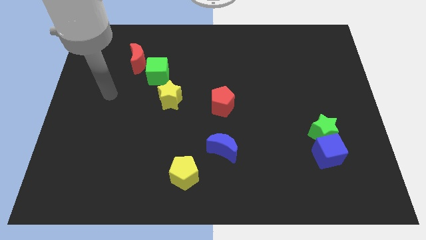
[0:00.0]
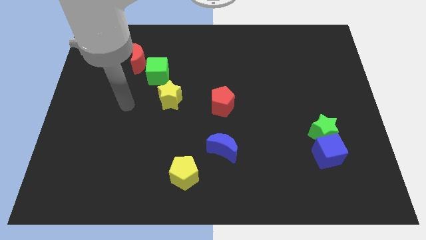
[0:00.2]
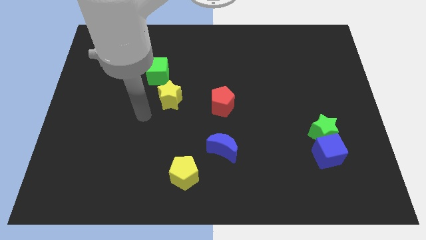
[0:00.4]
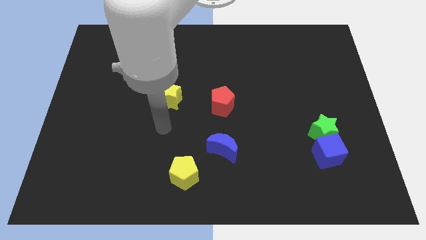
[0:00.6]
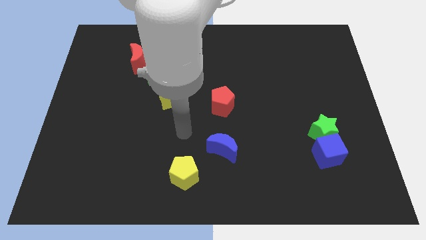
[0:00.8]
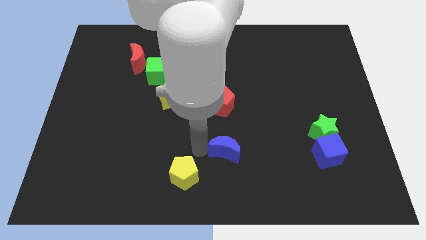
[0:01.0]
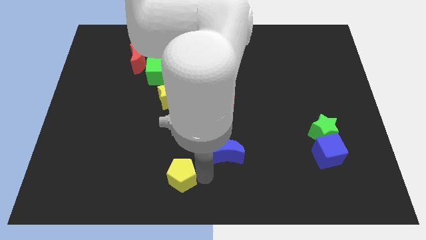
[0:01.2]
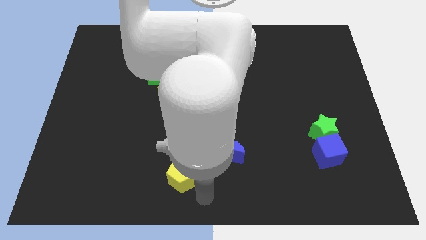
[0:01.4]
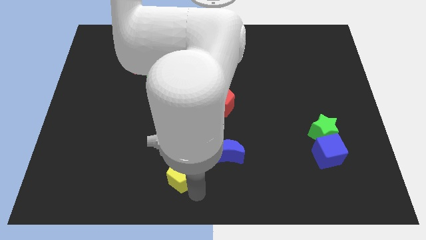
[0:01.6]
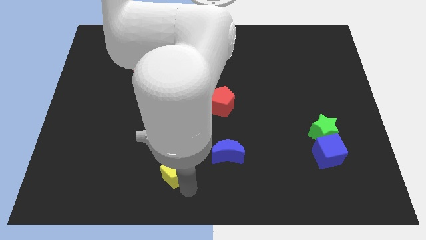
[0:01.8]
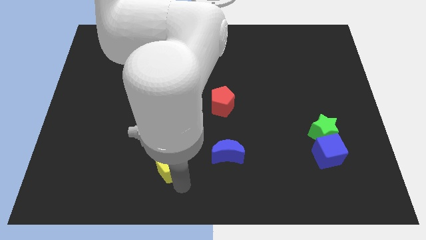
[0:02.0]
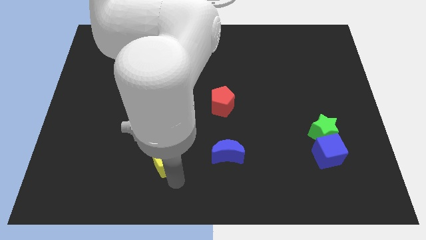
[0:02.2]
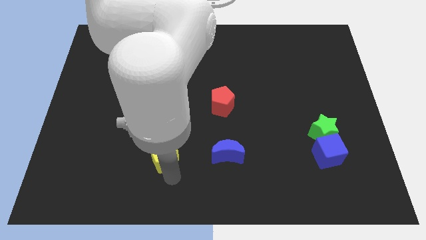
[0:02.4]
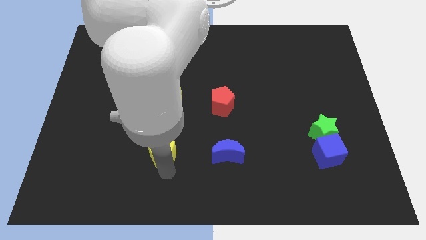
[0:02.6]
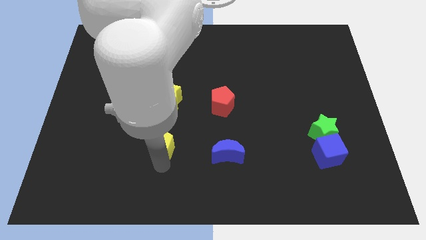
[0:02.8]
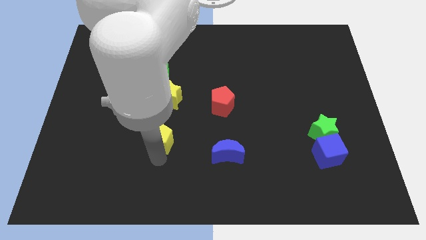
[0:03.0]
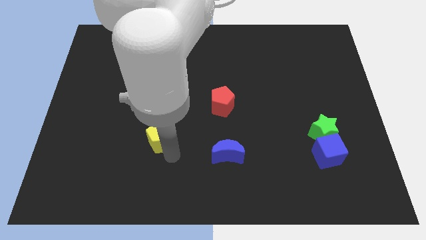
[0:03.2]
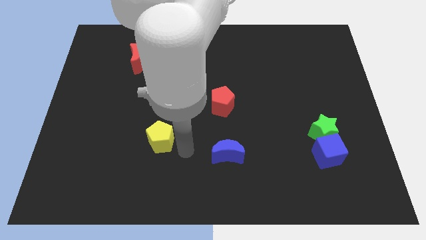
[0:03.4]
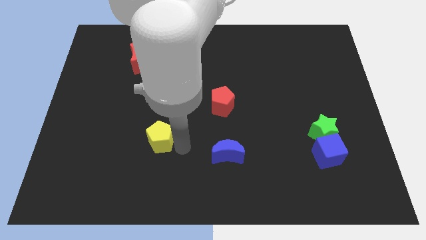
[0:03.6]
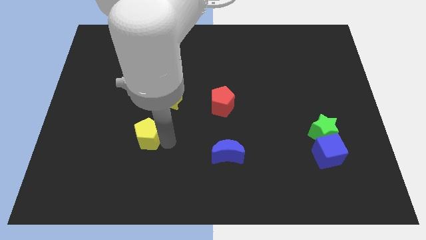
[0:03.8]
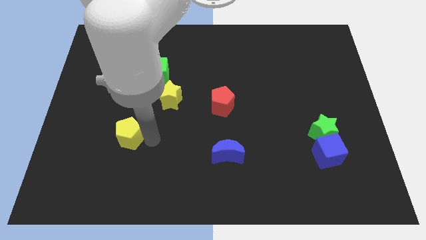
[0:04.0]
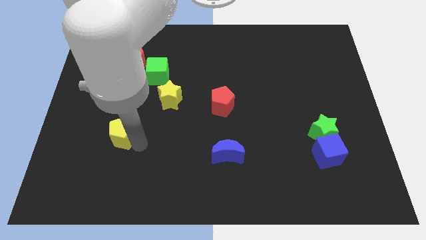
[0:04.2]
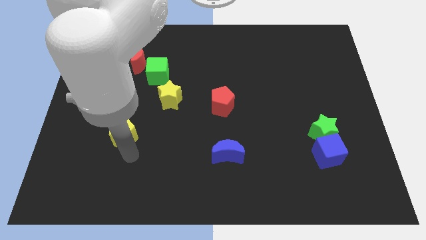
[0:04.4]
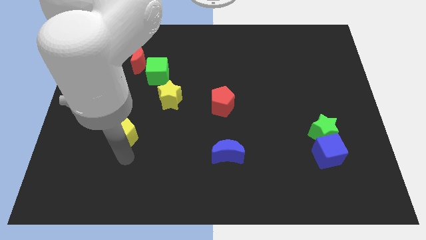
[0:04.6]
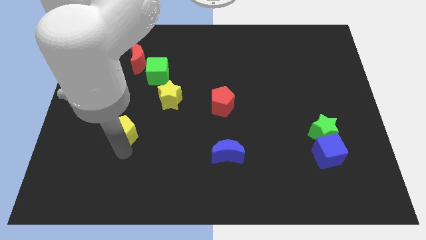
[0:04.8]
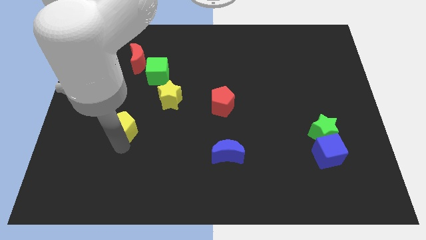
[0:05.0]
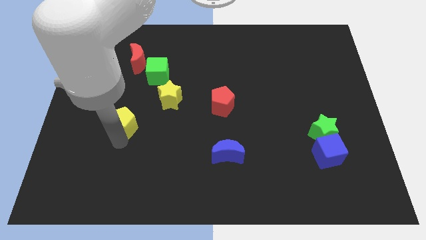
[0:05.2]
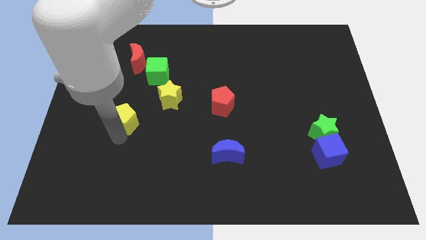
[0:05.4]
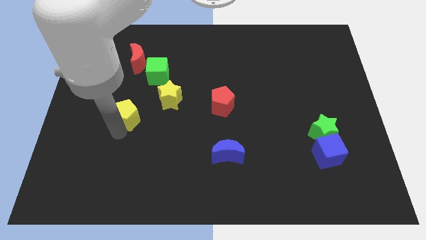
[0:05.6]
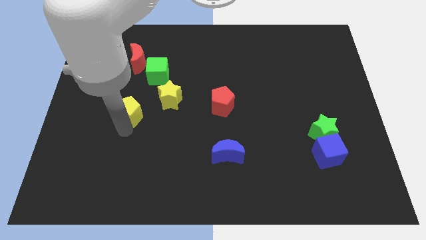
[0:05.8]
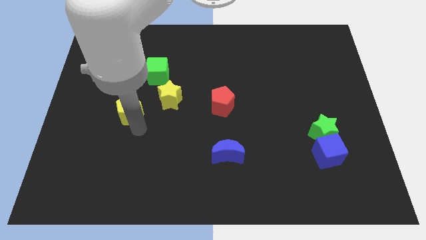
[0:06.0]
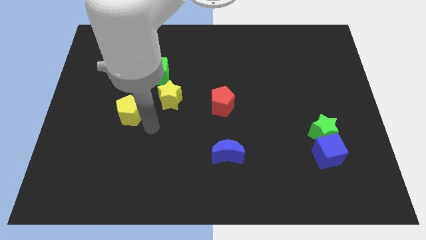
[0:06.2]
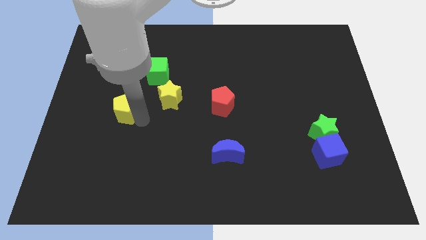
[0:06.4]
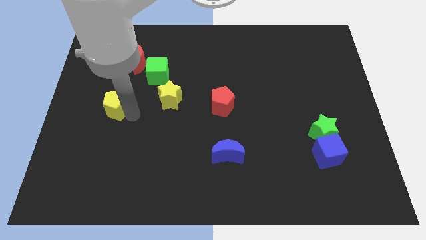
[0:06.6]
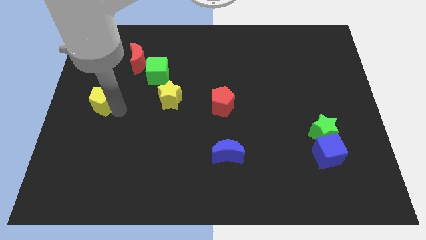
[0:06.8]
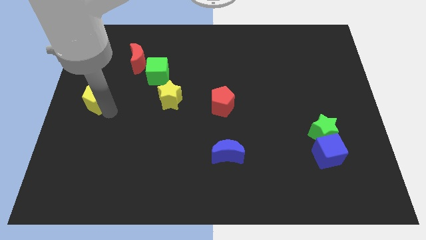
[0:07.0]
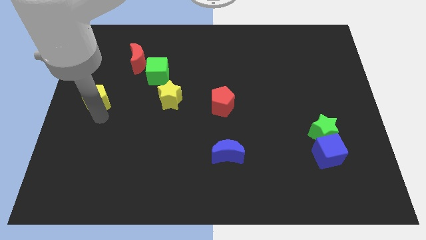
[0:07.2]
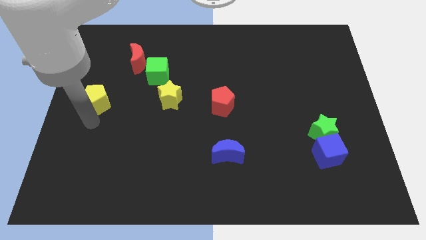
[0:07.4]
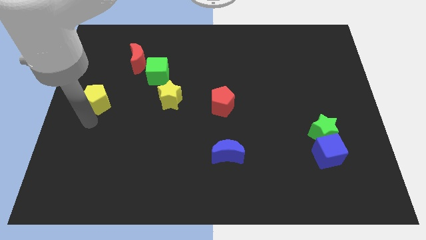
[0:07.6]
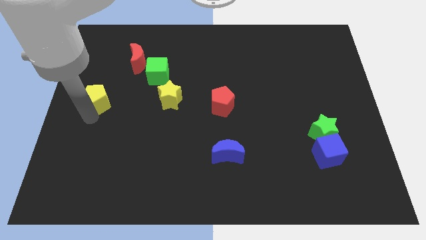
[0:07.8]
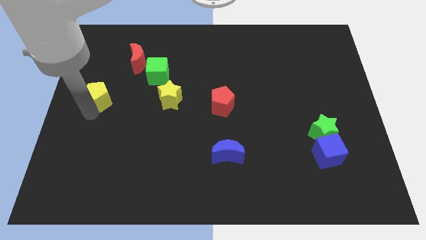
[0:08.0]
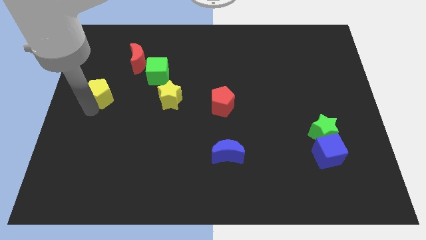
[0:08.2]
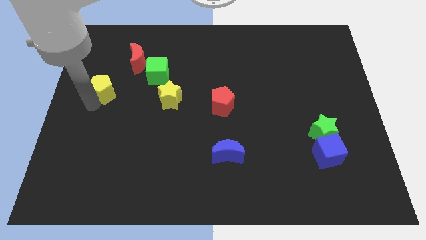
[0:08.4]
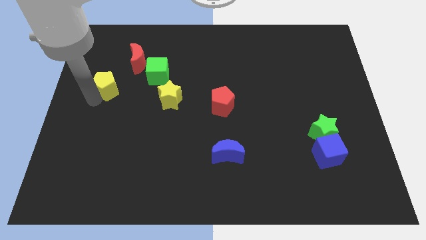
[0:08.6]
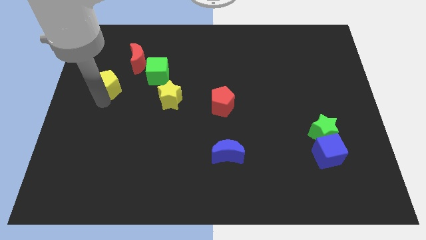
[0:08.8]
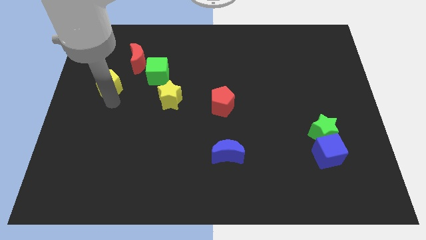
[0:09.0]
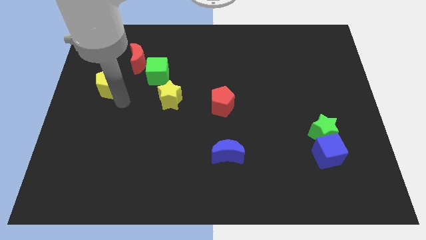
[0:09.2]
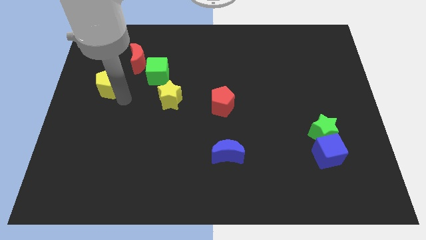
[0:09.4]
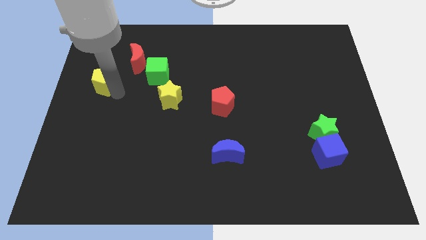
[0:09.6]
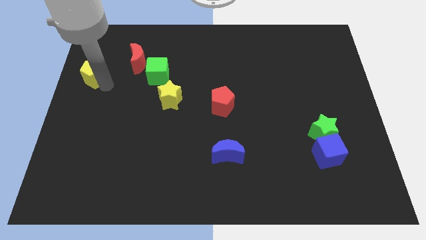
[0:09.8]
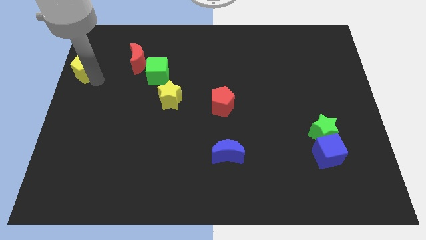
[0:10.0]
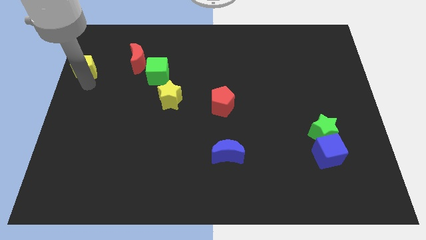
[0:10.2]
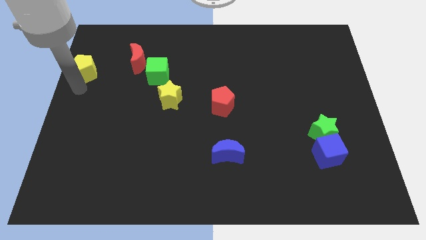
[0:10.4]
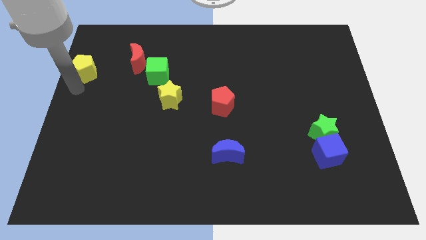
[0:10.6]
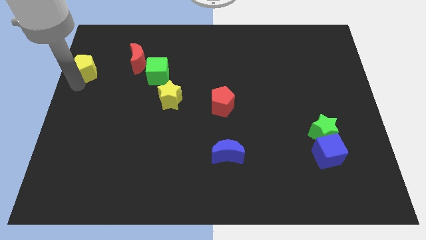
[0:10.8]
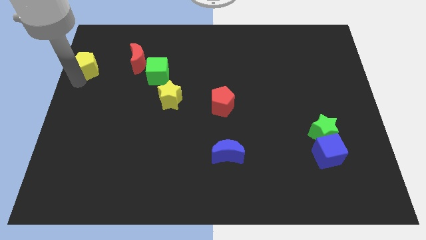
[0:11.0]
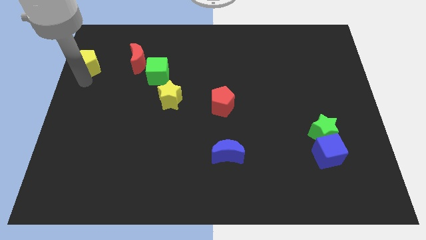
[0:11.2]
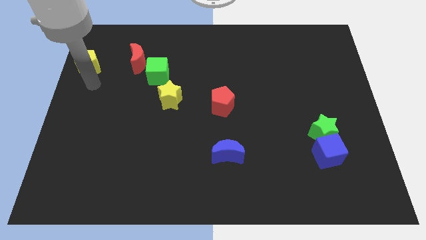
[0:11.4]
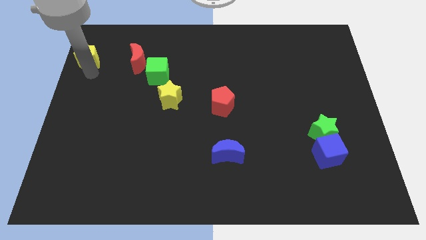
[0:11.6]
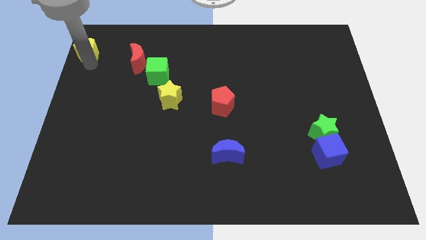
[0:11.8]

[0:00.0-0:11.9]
push the yellow pentagon to the top left of the board

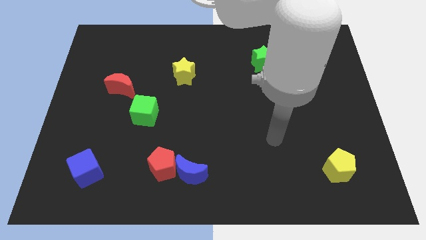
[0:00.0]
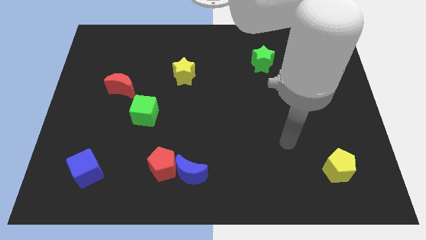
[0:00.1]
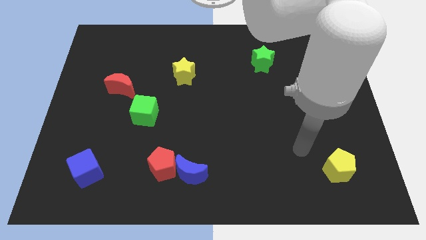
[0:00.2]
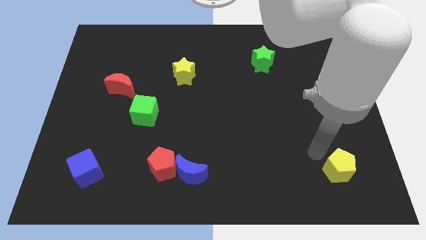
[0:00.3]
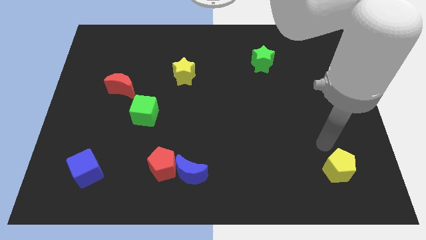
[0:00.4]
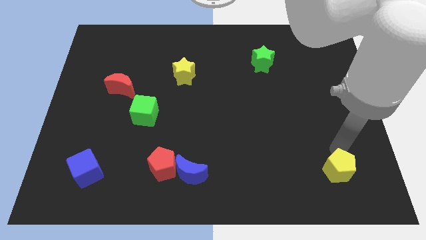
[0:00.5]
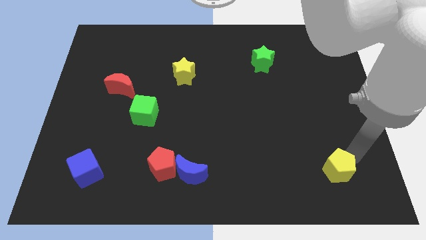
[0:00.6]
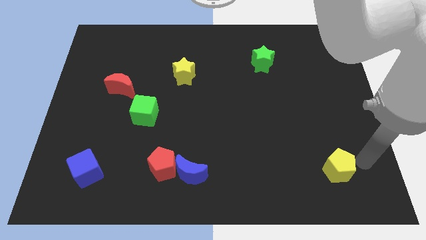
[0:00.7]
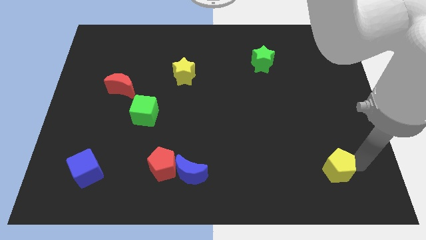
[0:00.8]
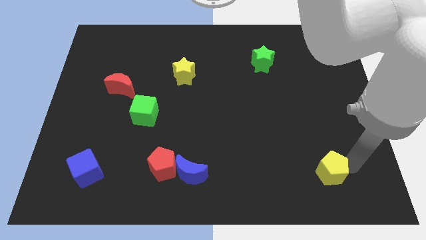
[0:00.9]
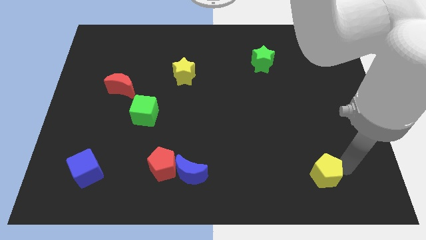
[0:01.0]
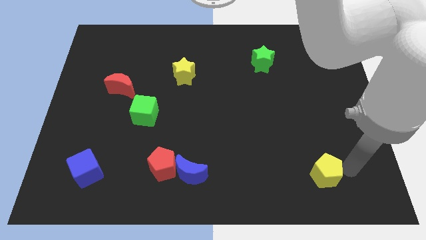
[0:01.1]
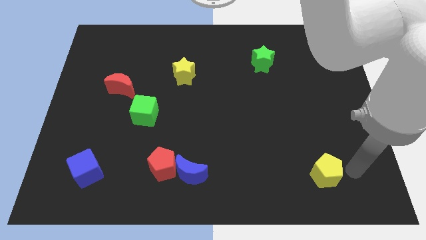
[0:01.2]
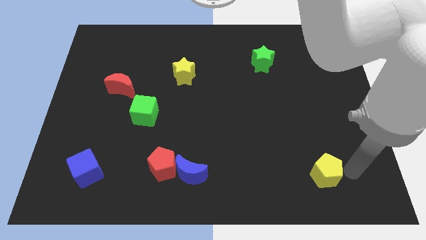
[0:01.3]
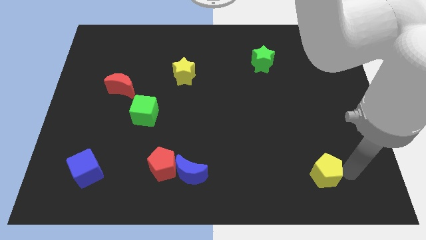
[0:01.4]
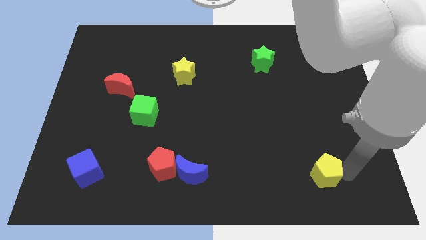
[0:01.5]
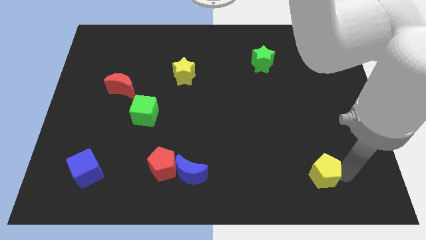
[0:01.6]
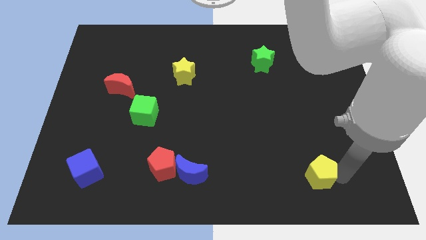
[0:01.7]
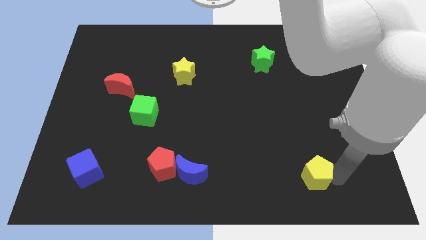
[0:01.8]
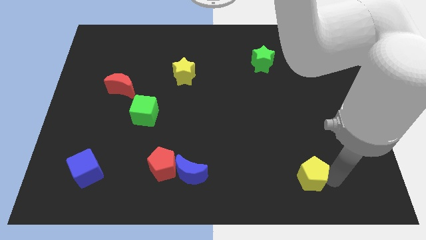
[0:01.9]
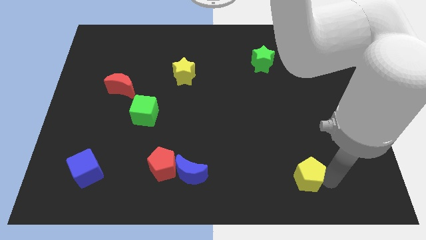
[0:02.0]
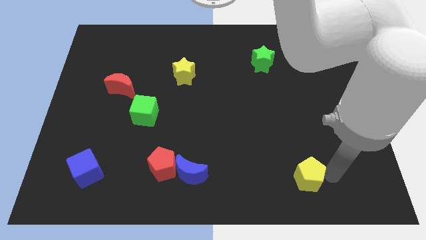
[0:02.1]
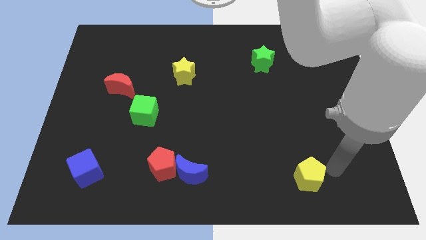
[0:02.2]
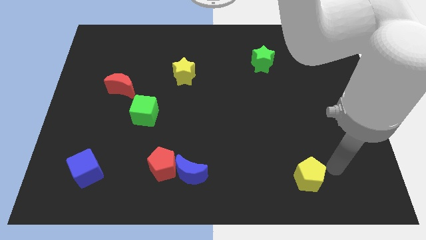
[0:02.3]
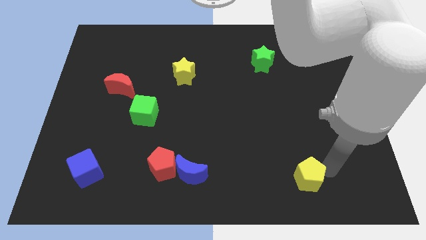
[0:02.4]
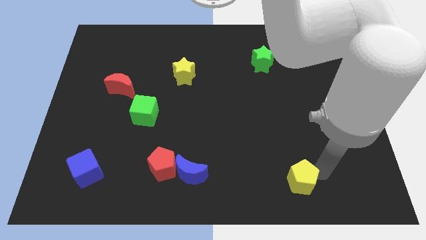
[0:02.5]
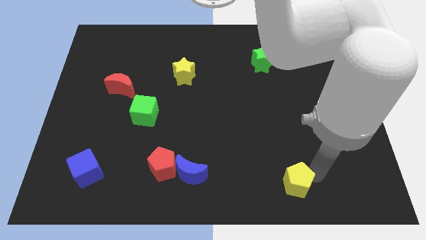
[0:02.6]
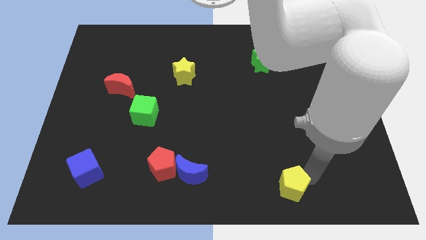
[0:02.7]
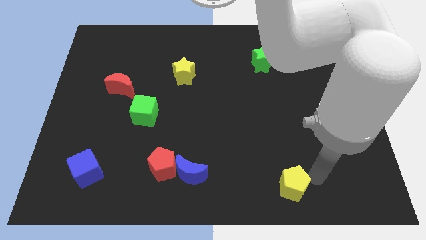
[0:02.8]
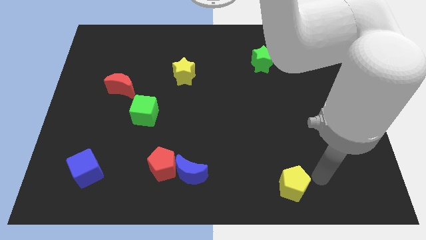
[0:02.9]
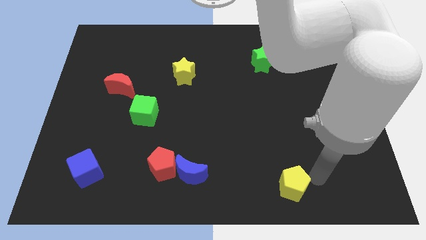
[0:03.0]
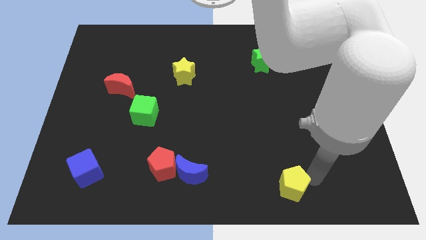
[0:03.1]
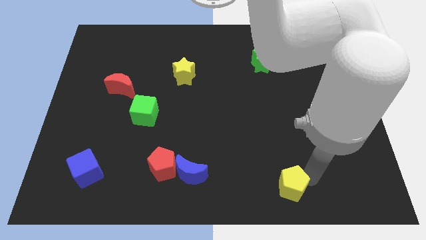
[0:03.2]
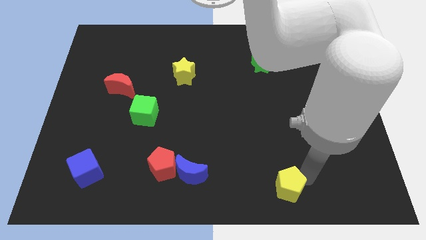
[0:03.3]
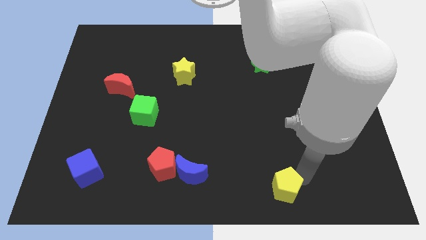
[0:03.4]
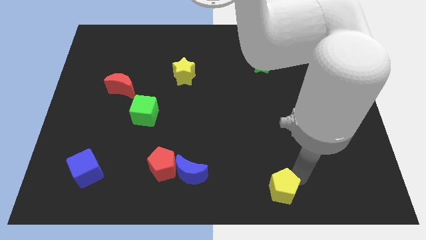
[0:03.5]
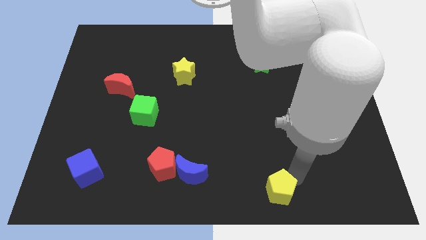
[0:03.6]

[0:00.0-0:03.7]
move the yellow pentagon to the bottom side
